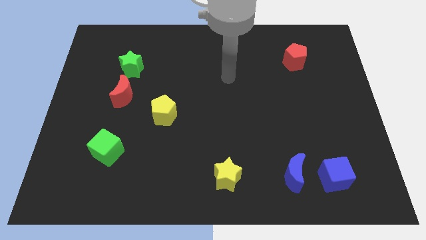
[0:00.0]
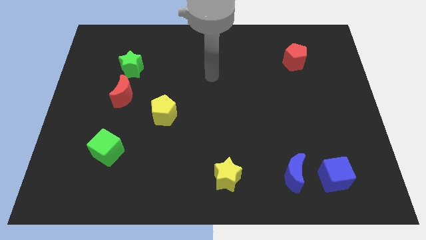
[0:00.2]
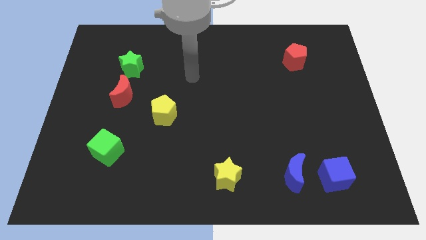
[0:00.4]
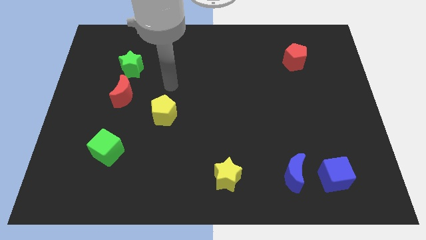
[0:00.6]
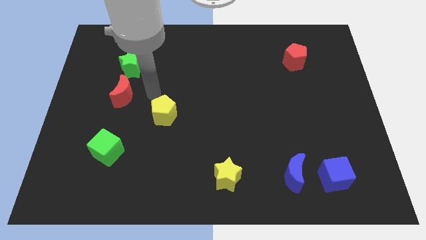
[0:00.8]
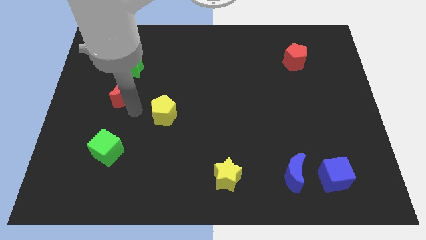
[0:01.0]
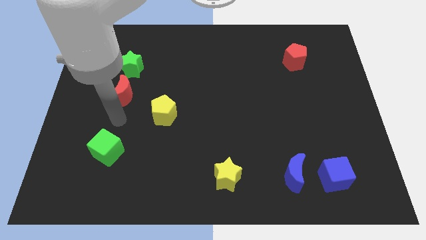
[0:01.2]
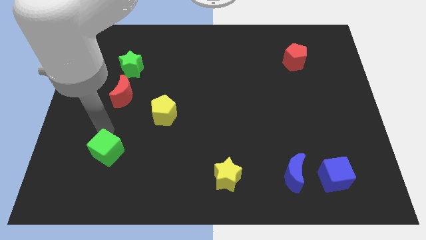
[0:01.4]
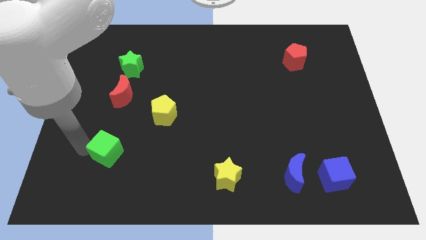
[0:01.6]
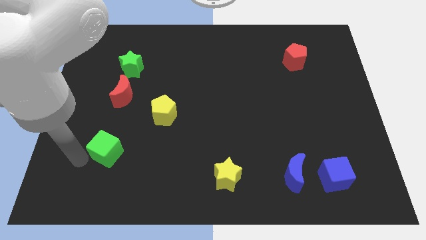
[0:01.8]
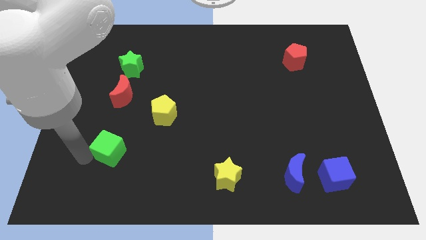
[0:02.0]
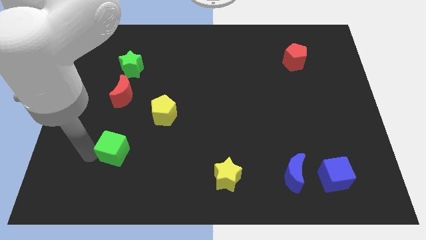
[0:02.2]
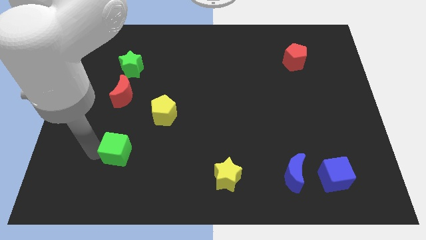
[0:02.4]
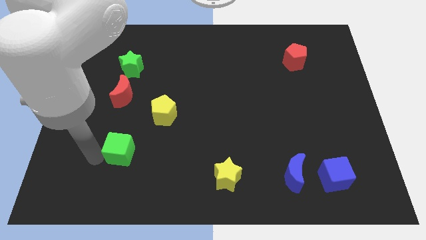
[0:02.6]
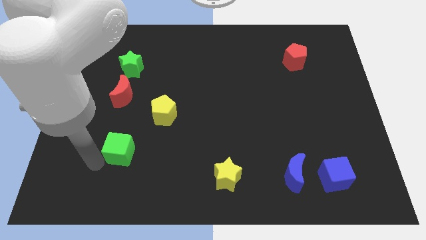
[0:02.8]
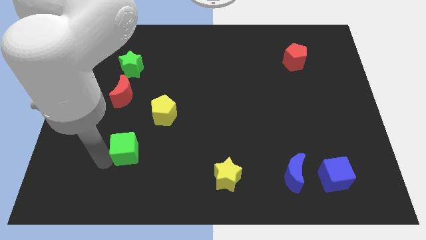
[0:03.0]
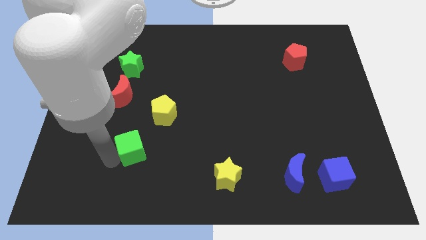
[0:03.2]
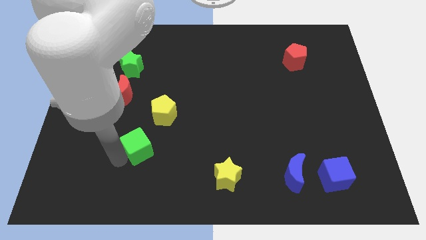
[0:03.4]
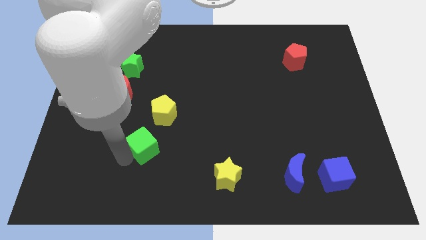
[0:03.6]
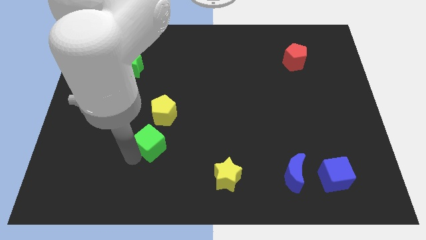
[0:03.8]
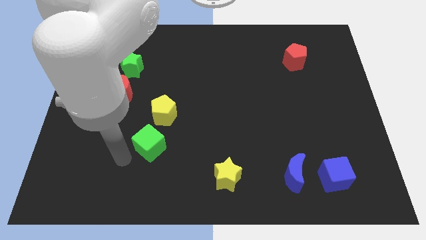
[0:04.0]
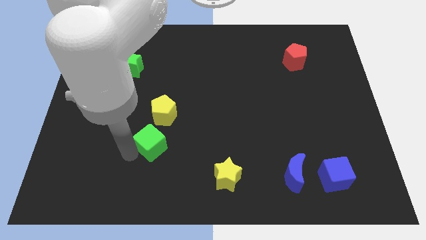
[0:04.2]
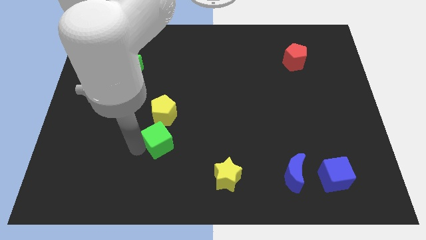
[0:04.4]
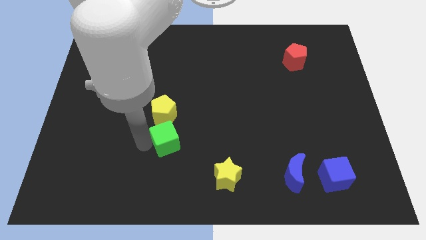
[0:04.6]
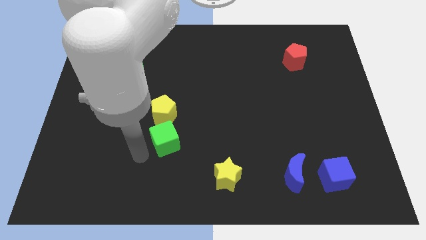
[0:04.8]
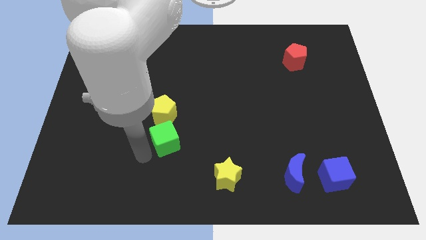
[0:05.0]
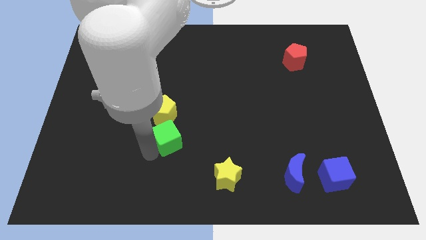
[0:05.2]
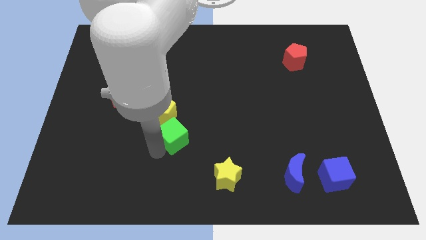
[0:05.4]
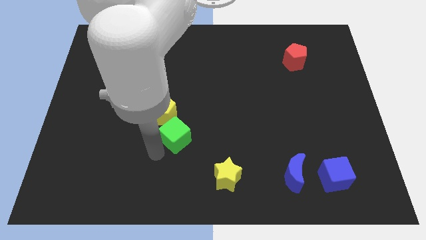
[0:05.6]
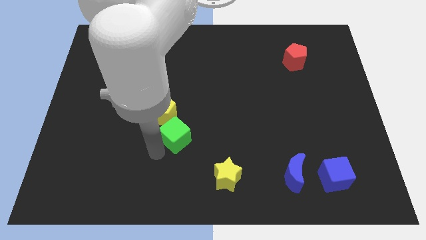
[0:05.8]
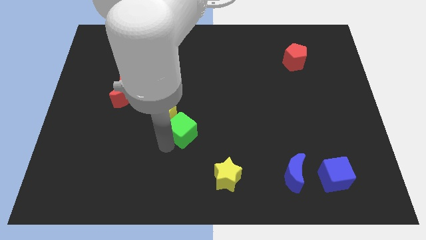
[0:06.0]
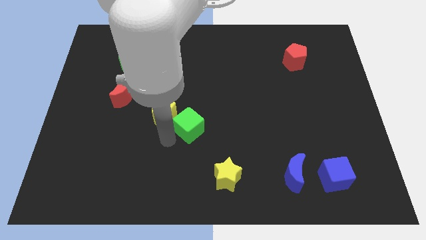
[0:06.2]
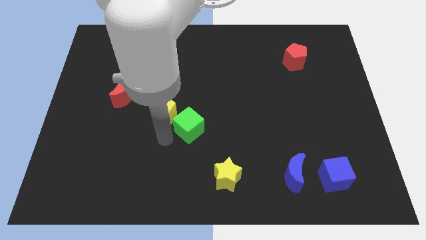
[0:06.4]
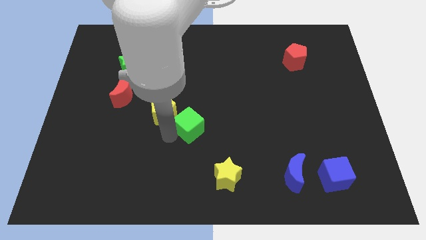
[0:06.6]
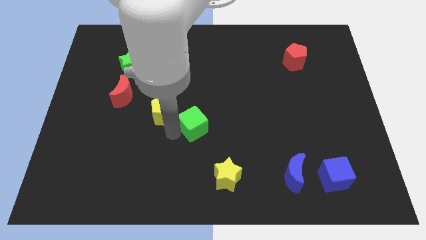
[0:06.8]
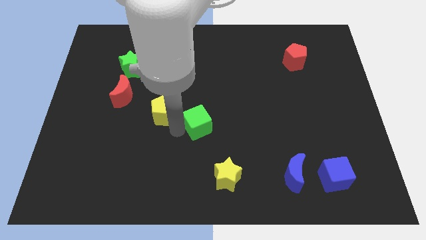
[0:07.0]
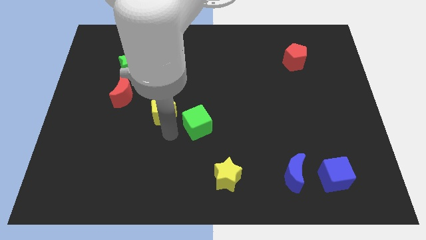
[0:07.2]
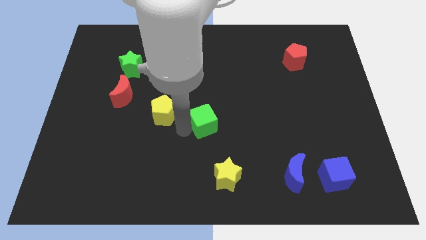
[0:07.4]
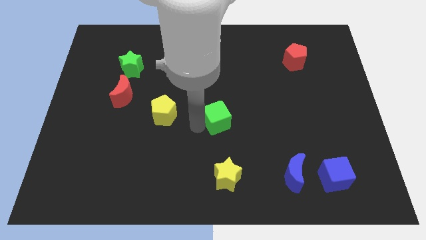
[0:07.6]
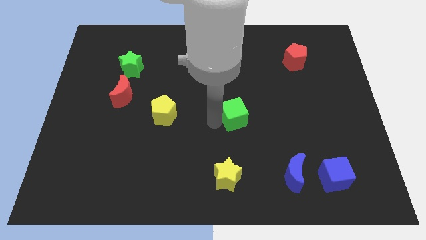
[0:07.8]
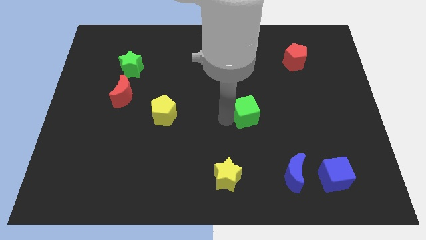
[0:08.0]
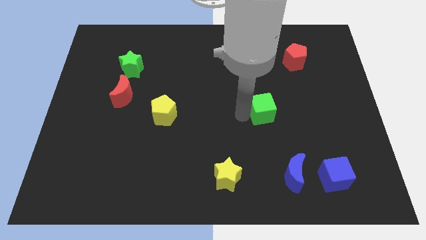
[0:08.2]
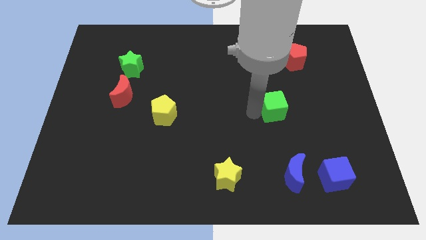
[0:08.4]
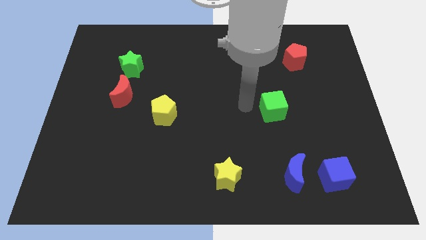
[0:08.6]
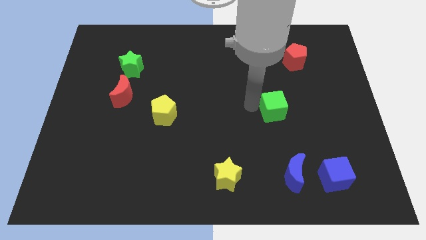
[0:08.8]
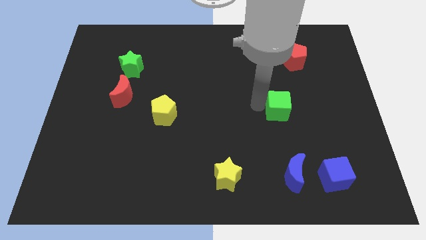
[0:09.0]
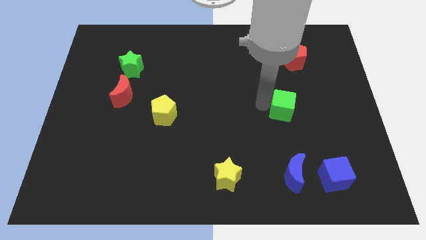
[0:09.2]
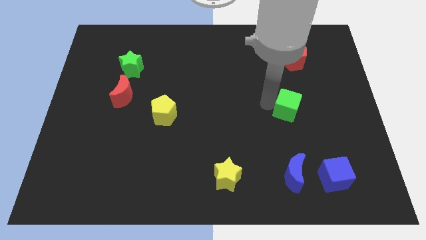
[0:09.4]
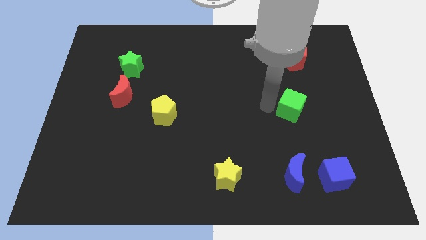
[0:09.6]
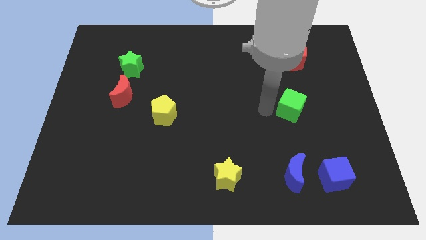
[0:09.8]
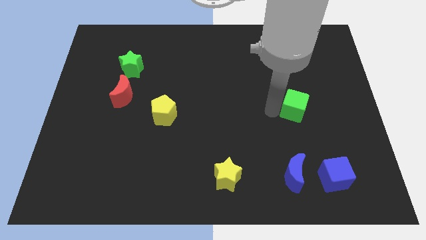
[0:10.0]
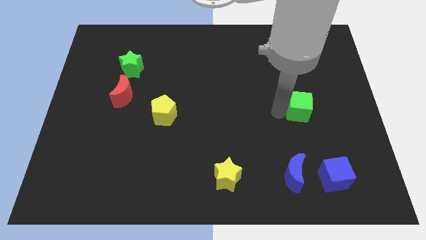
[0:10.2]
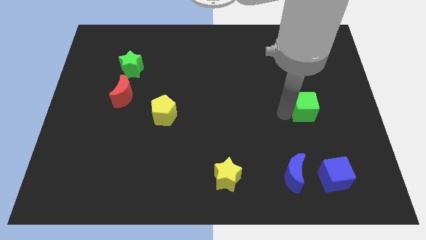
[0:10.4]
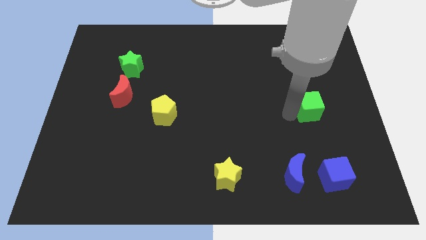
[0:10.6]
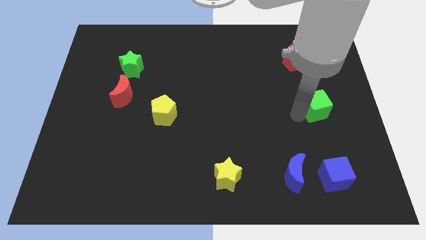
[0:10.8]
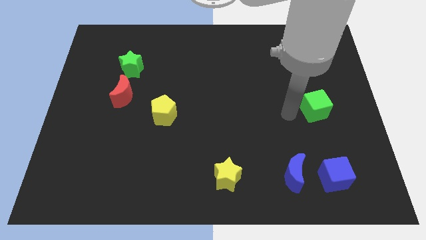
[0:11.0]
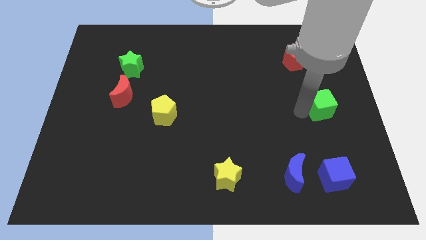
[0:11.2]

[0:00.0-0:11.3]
push the green cube to the right side of the board
